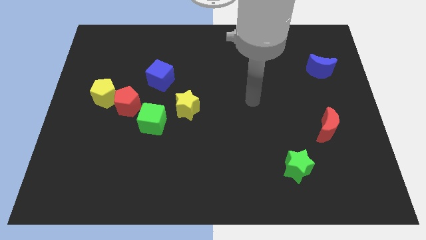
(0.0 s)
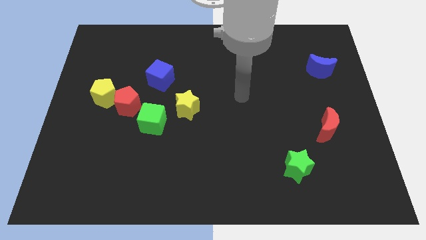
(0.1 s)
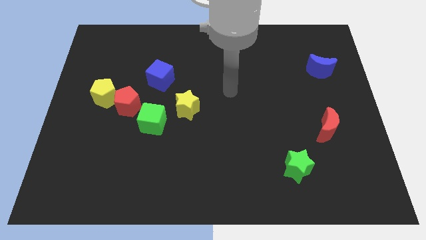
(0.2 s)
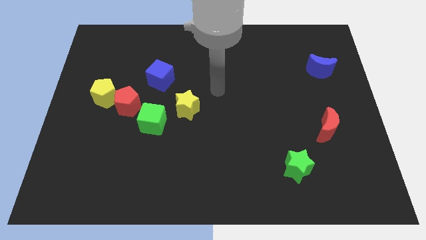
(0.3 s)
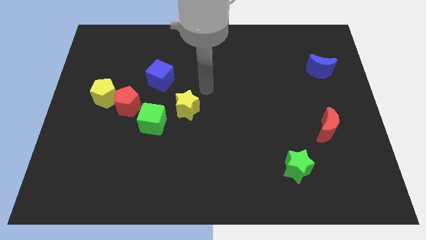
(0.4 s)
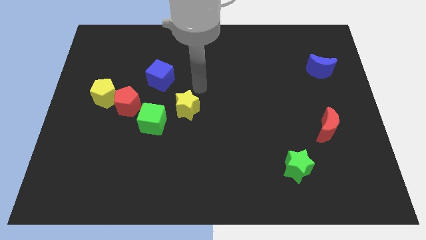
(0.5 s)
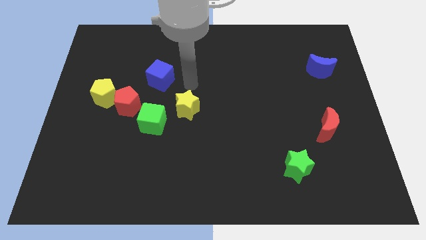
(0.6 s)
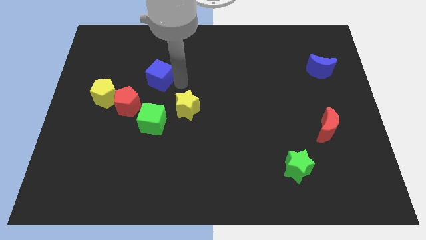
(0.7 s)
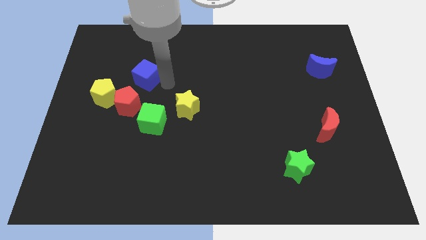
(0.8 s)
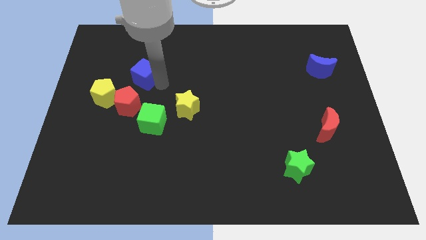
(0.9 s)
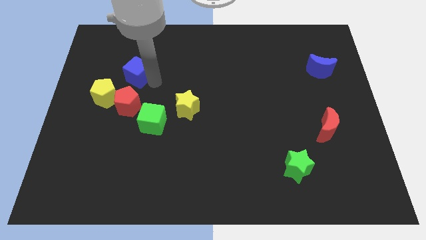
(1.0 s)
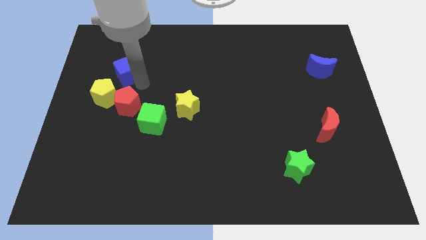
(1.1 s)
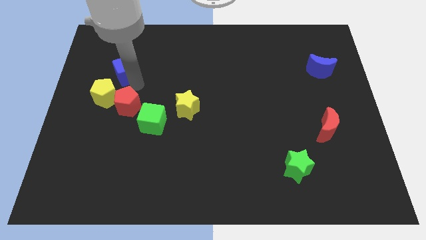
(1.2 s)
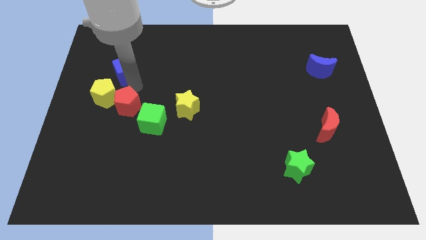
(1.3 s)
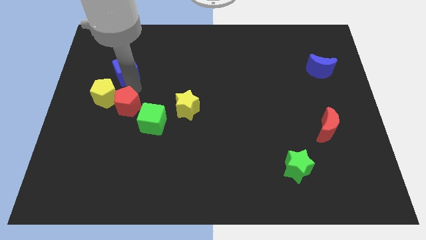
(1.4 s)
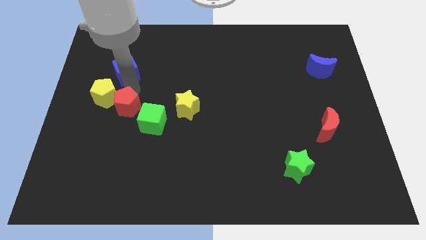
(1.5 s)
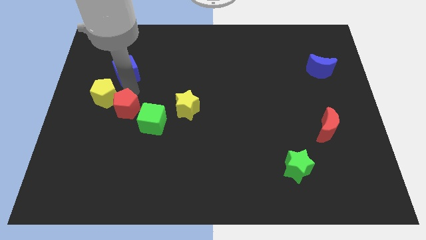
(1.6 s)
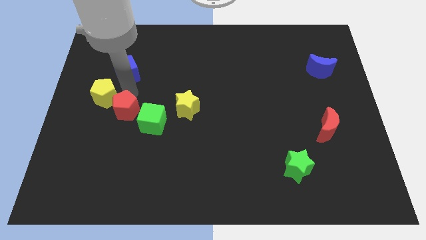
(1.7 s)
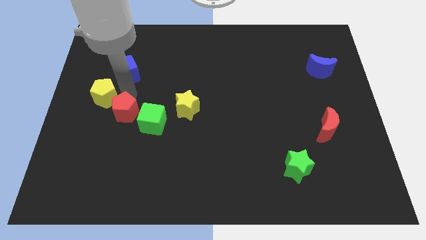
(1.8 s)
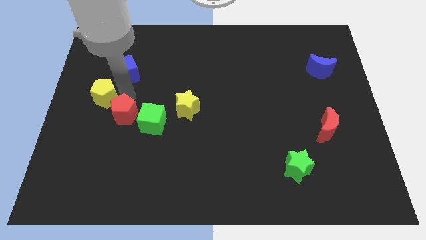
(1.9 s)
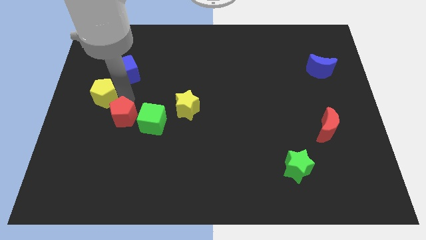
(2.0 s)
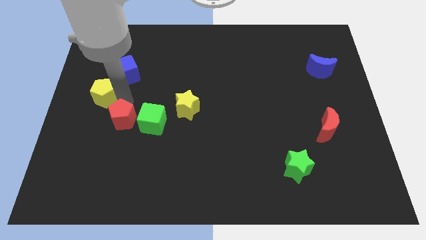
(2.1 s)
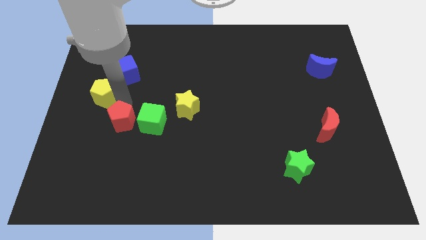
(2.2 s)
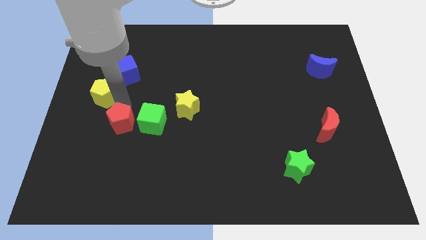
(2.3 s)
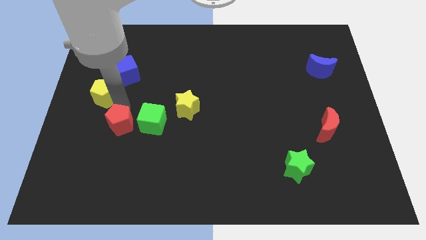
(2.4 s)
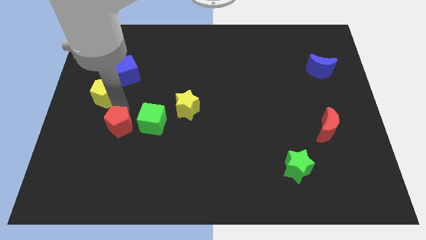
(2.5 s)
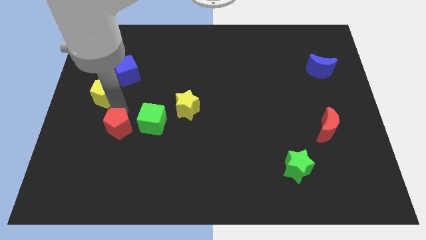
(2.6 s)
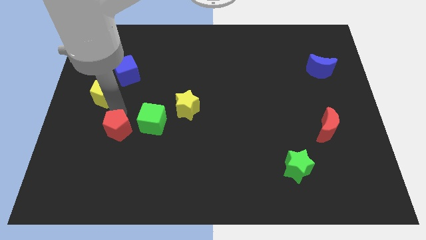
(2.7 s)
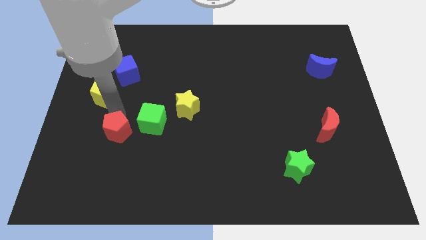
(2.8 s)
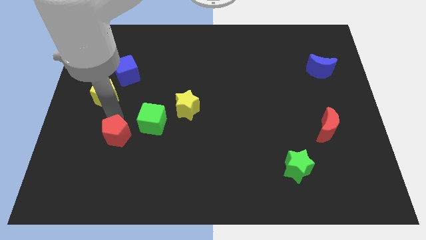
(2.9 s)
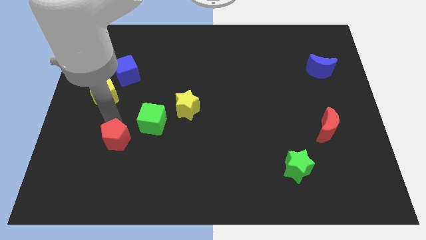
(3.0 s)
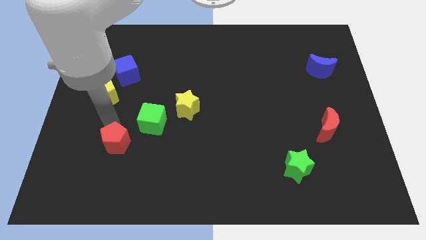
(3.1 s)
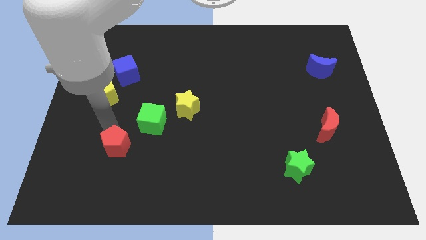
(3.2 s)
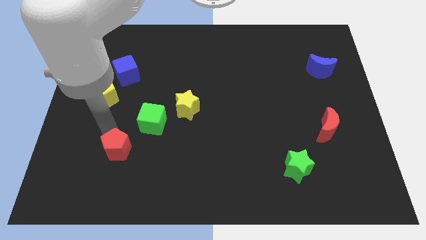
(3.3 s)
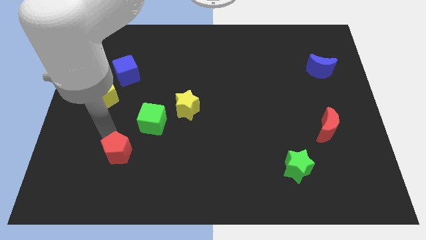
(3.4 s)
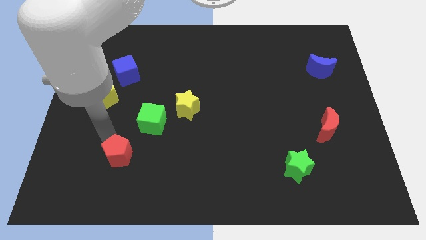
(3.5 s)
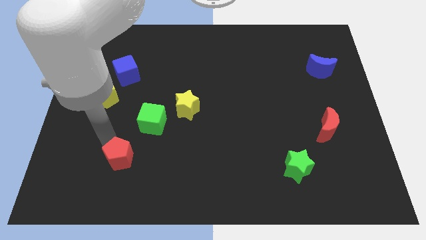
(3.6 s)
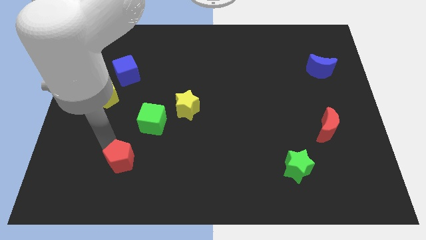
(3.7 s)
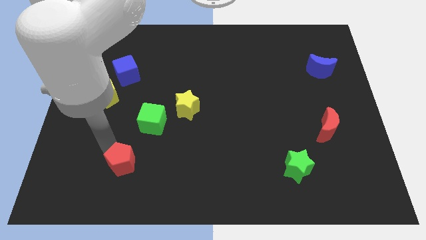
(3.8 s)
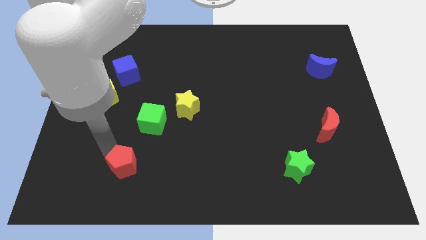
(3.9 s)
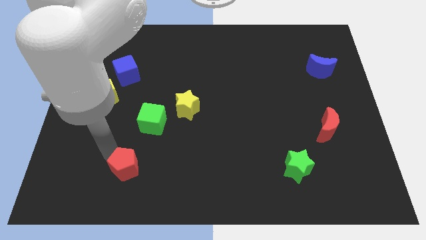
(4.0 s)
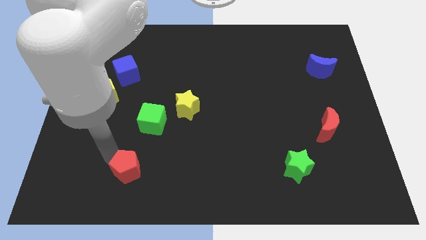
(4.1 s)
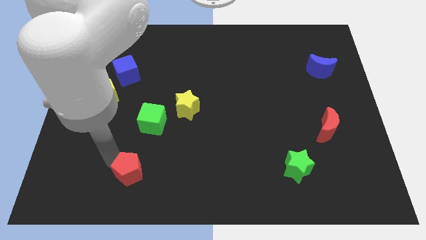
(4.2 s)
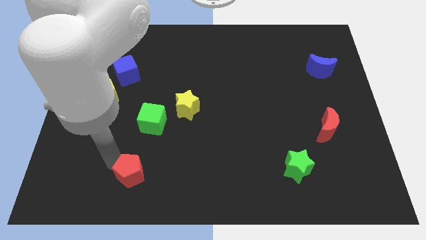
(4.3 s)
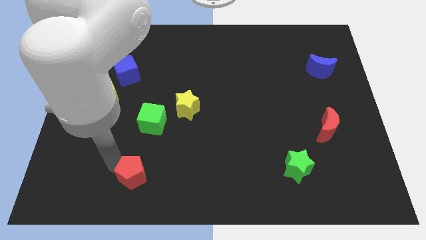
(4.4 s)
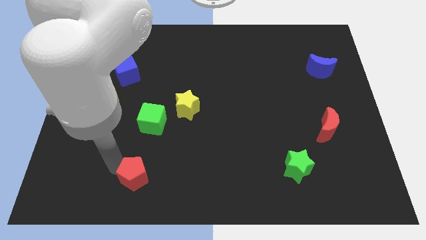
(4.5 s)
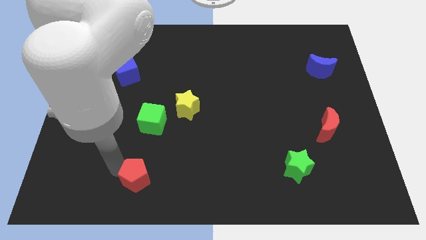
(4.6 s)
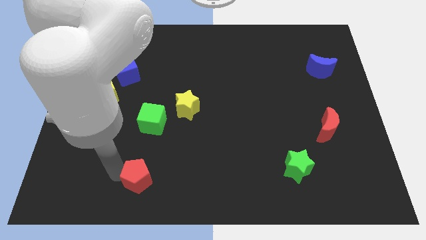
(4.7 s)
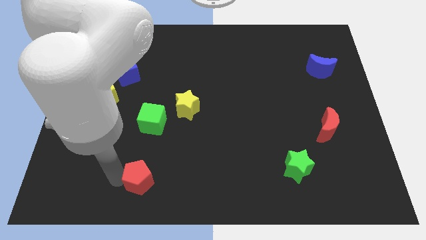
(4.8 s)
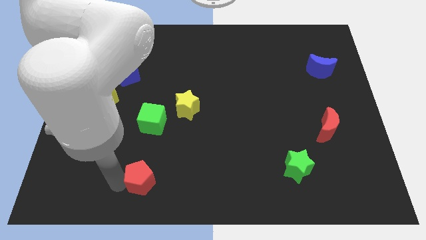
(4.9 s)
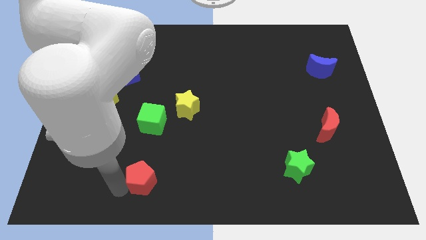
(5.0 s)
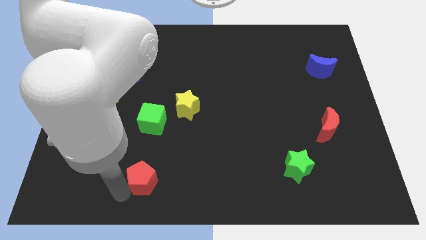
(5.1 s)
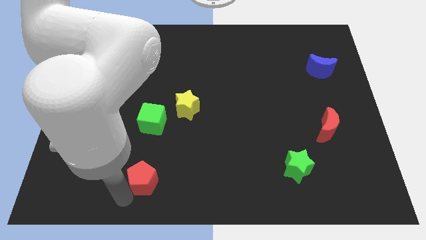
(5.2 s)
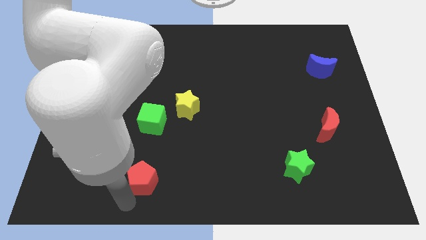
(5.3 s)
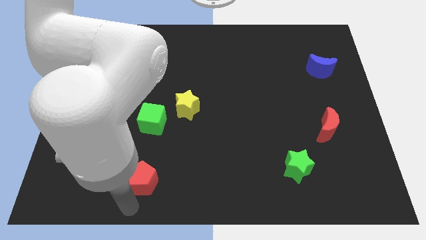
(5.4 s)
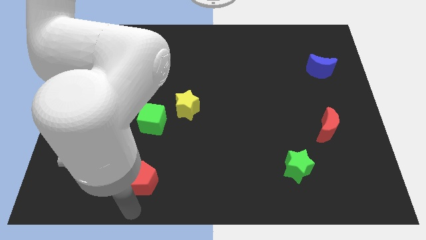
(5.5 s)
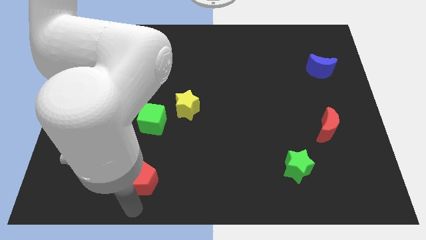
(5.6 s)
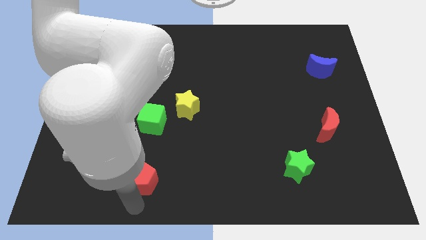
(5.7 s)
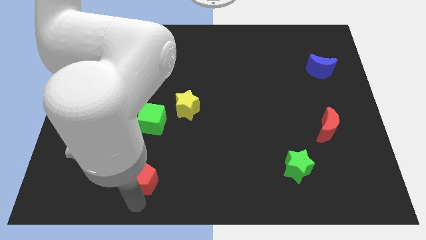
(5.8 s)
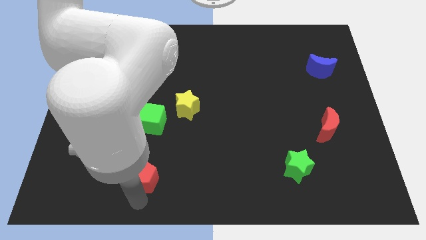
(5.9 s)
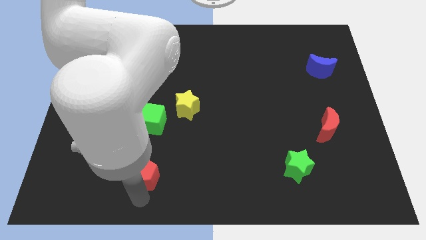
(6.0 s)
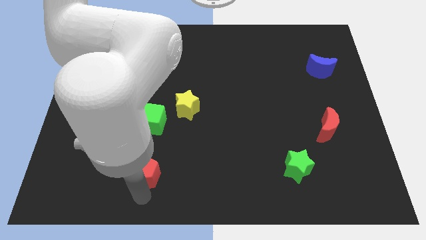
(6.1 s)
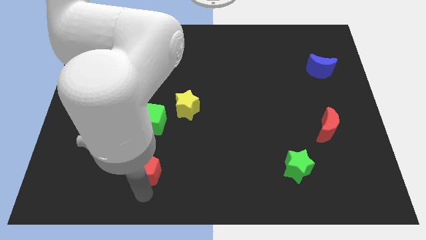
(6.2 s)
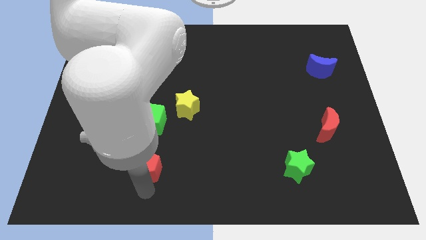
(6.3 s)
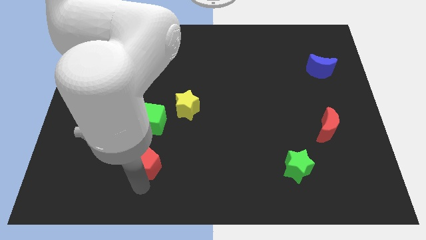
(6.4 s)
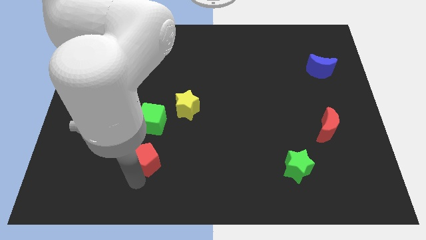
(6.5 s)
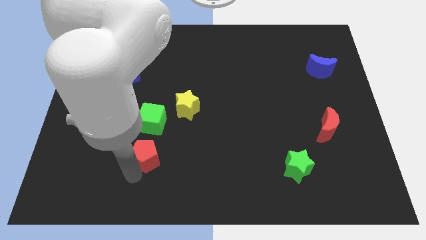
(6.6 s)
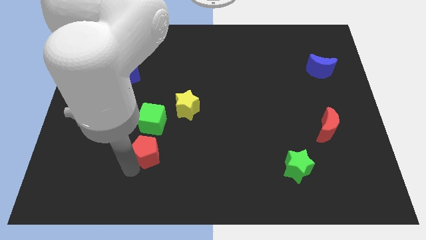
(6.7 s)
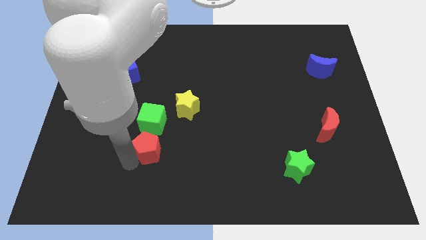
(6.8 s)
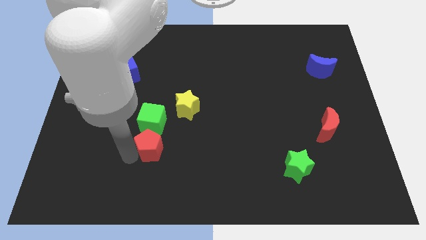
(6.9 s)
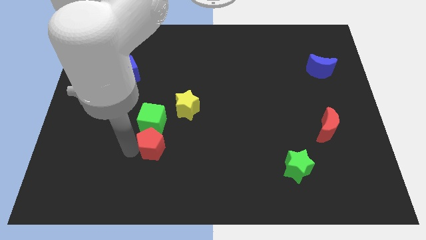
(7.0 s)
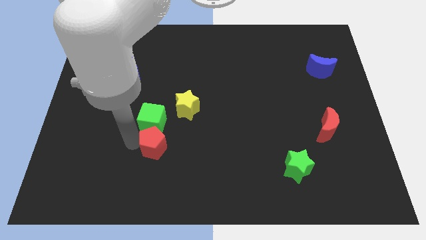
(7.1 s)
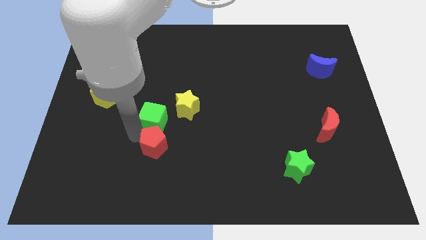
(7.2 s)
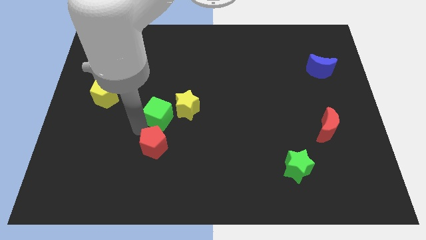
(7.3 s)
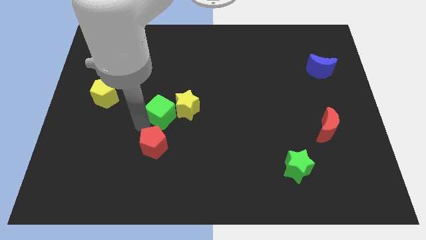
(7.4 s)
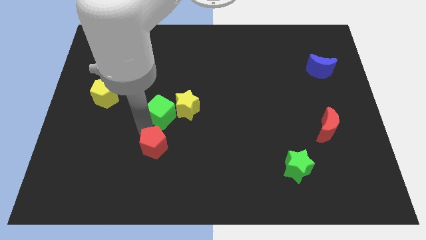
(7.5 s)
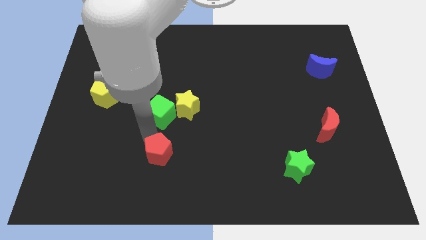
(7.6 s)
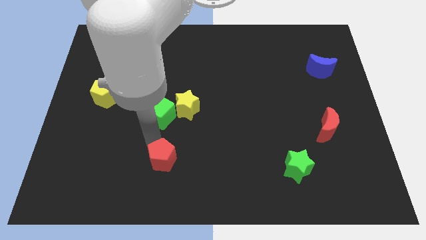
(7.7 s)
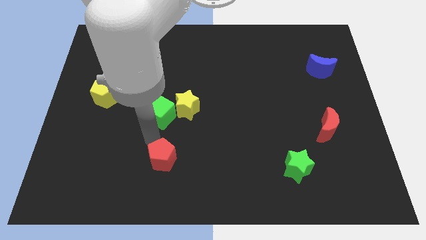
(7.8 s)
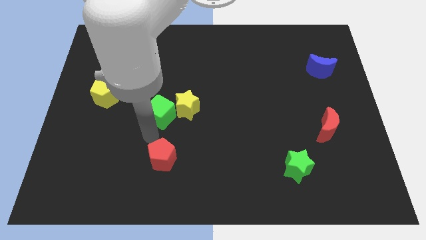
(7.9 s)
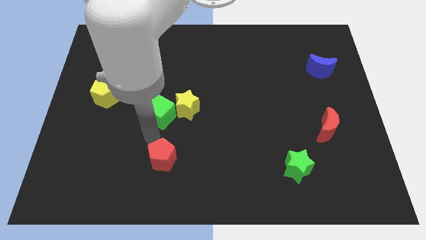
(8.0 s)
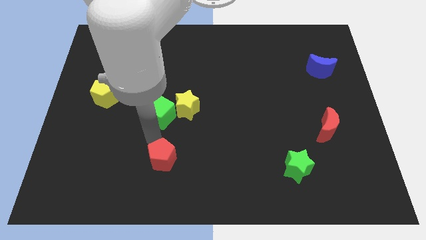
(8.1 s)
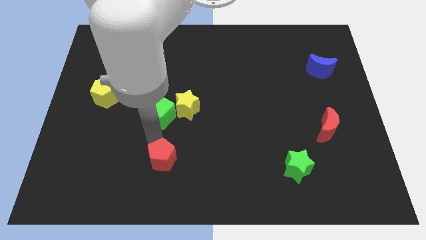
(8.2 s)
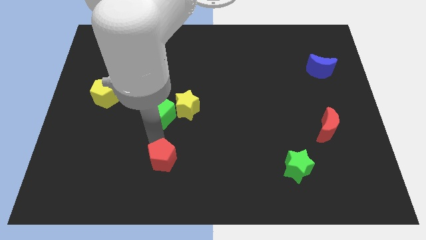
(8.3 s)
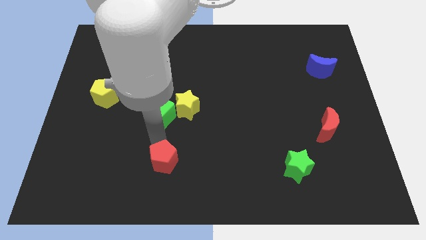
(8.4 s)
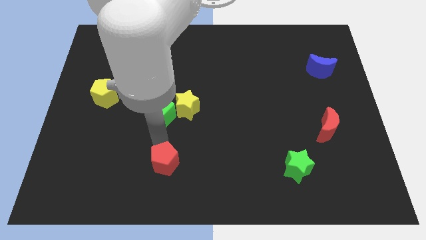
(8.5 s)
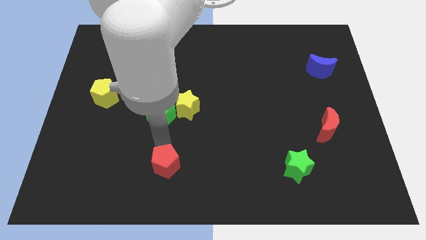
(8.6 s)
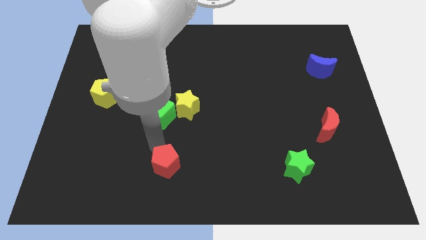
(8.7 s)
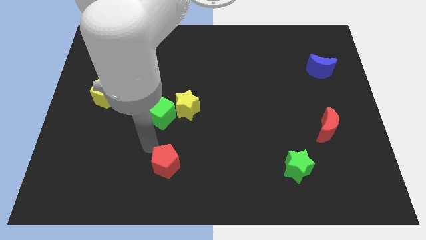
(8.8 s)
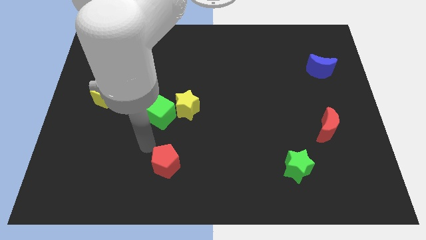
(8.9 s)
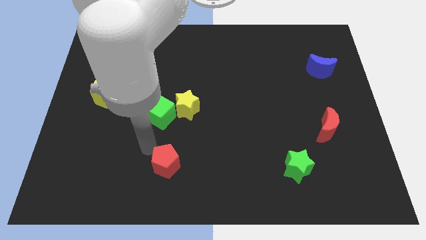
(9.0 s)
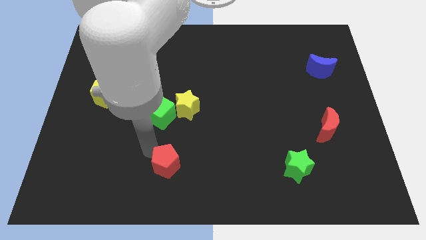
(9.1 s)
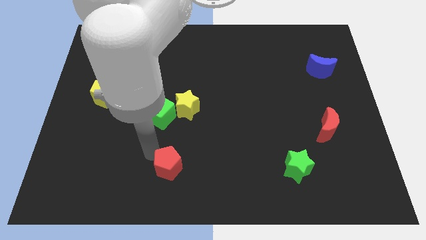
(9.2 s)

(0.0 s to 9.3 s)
put the red pentagon to the bottom side
